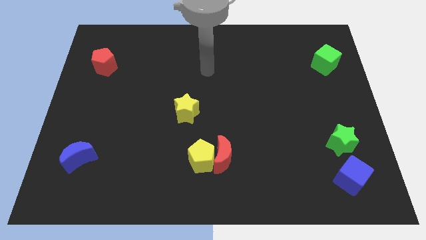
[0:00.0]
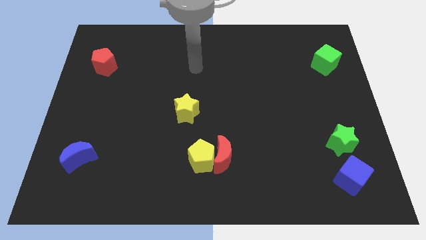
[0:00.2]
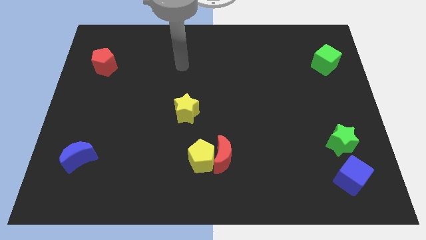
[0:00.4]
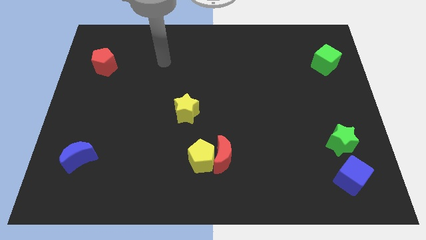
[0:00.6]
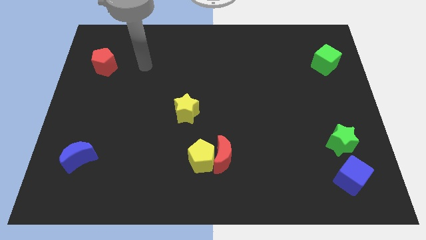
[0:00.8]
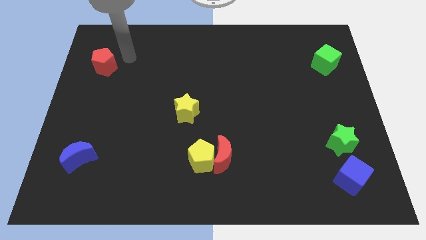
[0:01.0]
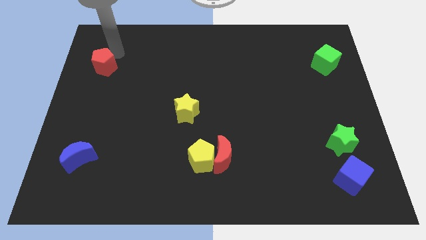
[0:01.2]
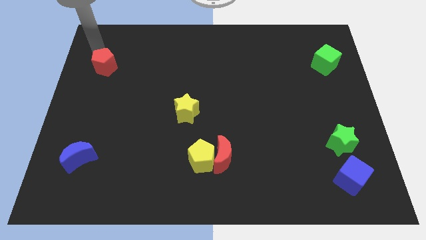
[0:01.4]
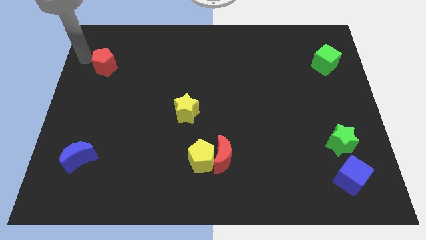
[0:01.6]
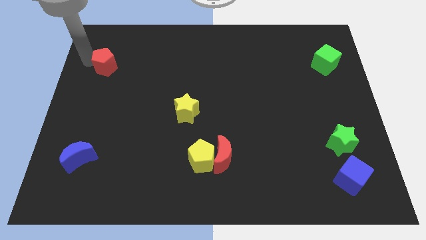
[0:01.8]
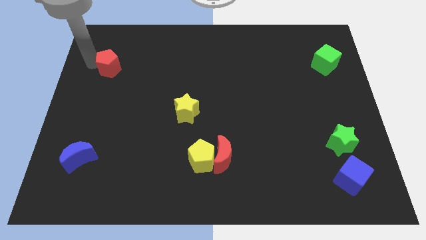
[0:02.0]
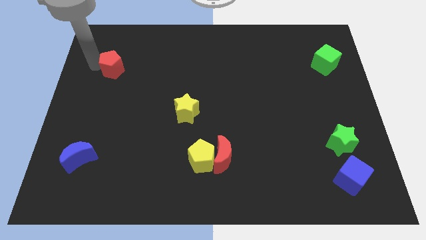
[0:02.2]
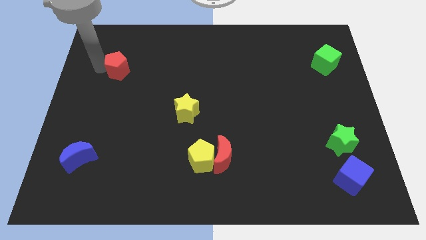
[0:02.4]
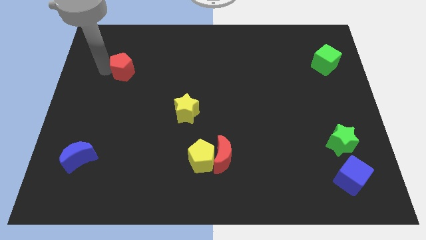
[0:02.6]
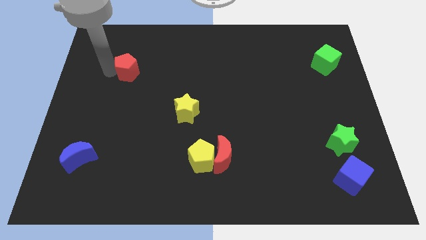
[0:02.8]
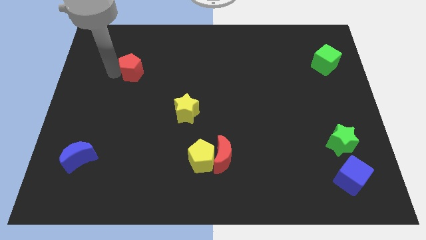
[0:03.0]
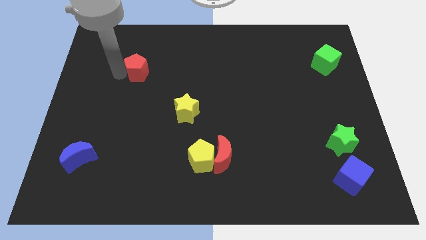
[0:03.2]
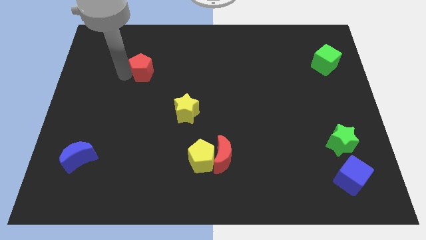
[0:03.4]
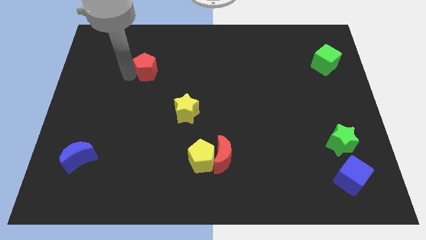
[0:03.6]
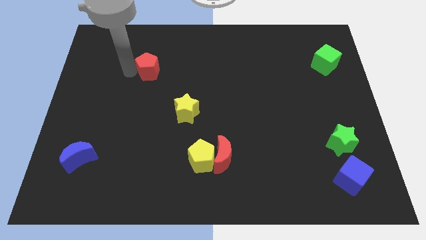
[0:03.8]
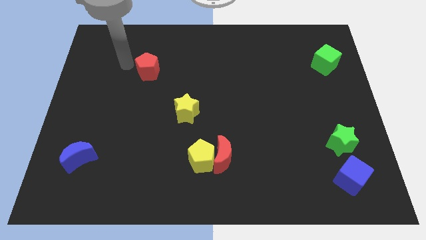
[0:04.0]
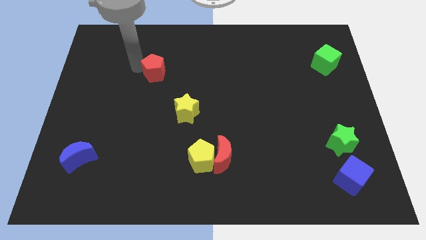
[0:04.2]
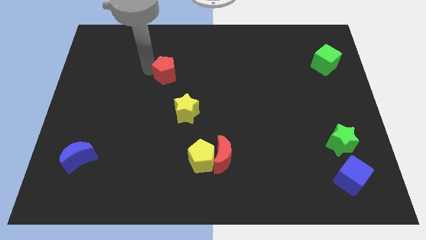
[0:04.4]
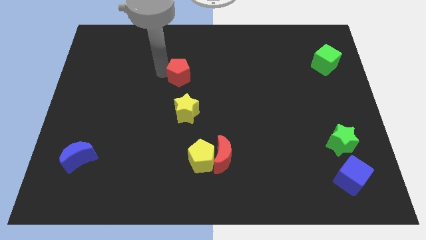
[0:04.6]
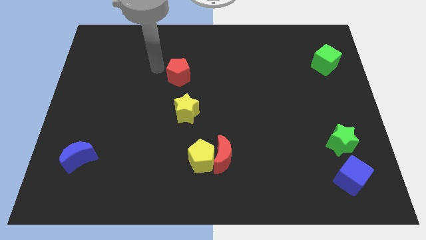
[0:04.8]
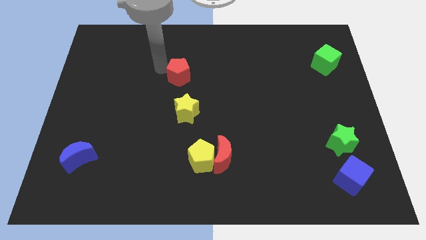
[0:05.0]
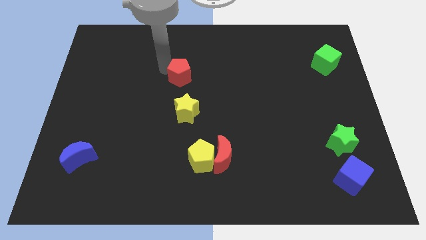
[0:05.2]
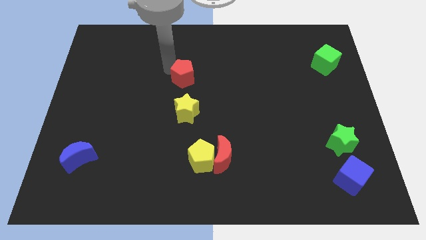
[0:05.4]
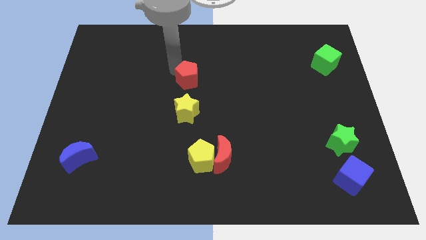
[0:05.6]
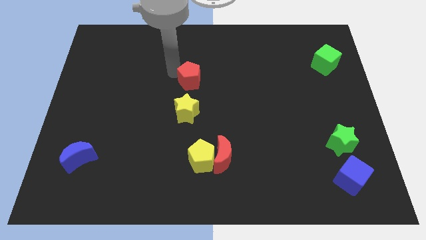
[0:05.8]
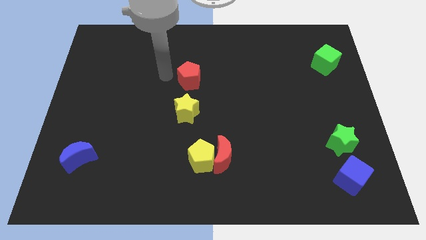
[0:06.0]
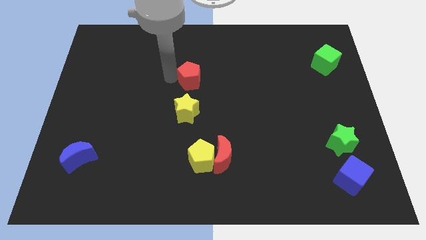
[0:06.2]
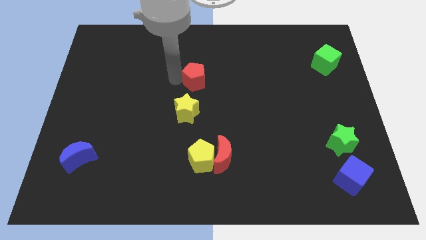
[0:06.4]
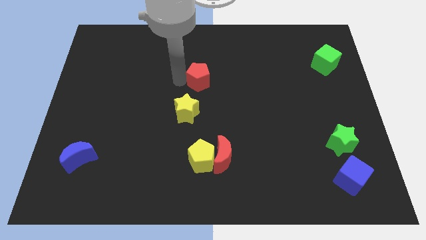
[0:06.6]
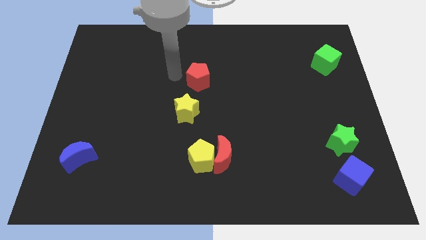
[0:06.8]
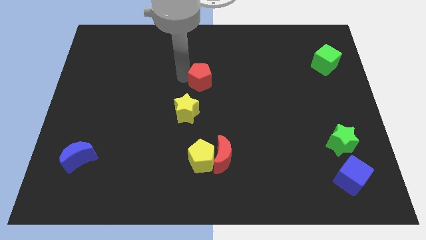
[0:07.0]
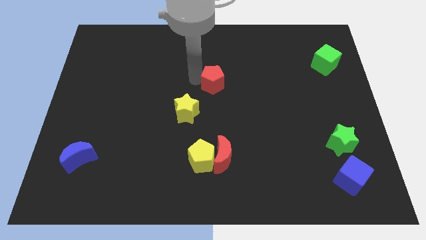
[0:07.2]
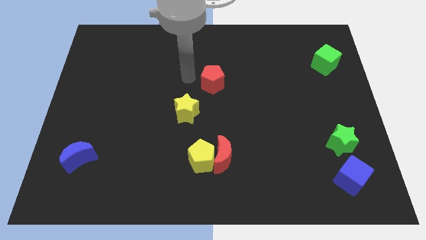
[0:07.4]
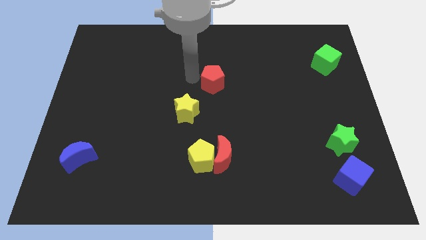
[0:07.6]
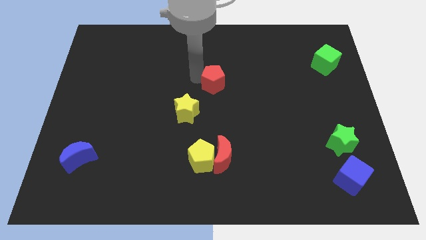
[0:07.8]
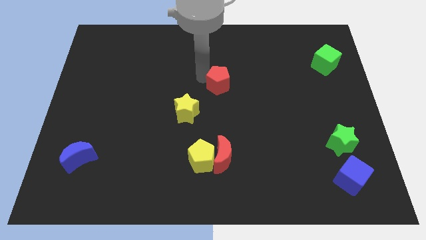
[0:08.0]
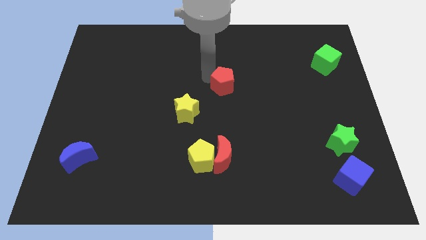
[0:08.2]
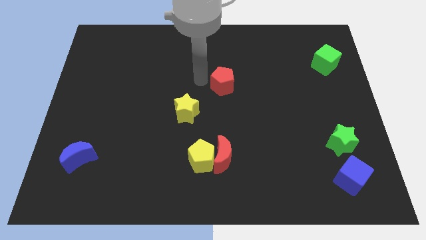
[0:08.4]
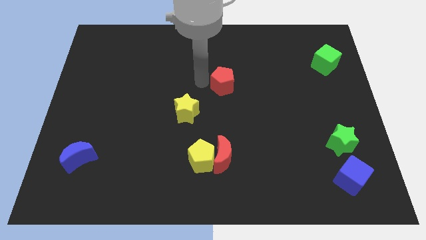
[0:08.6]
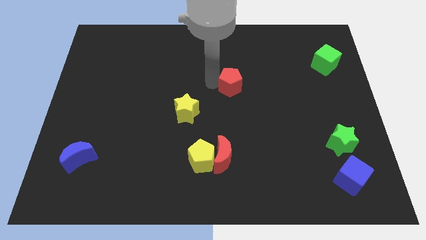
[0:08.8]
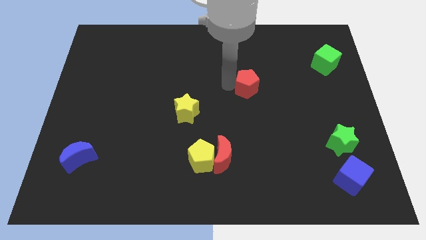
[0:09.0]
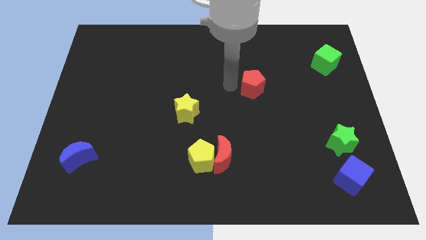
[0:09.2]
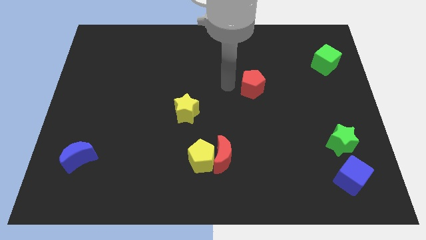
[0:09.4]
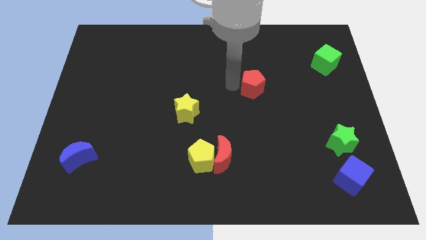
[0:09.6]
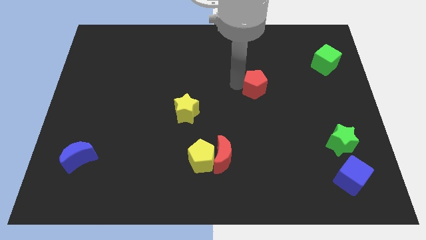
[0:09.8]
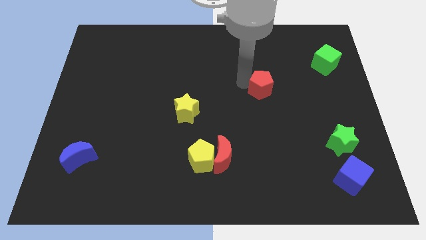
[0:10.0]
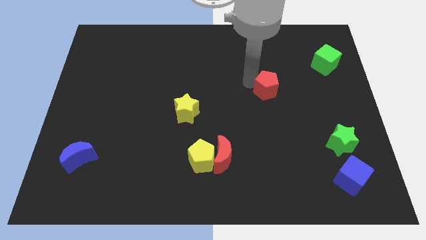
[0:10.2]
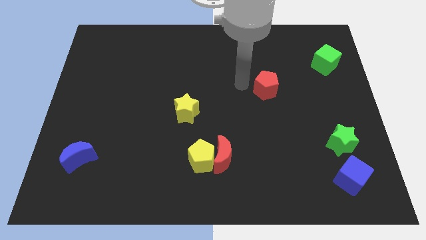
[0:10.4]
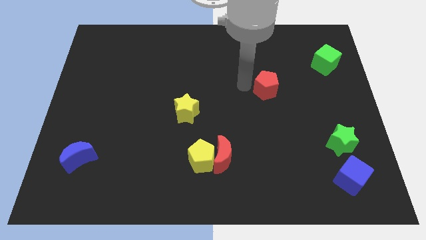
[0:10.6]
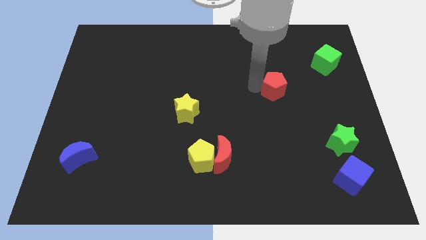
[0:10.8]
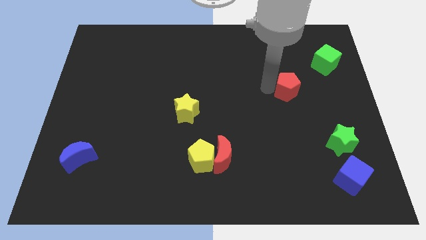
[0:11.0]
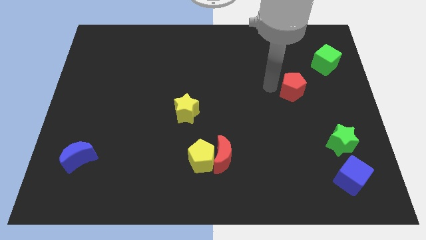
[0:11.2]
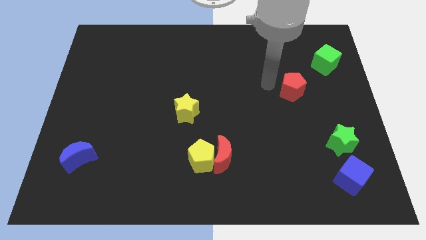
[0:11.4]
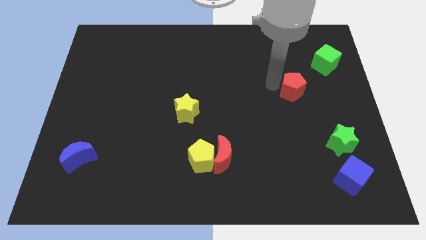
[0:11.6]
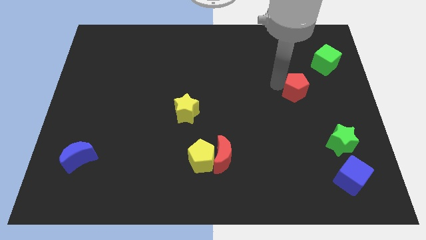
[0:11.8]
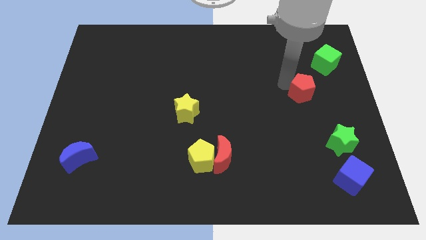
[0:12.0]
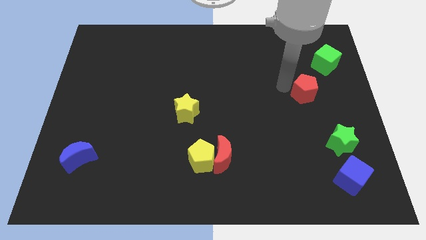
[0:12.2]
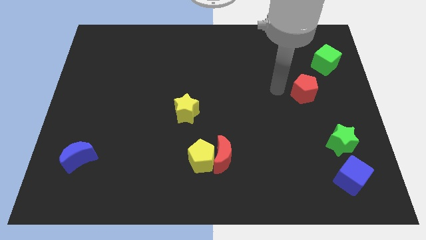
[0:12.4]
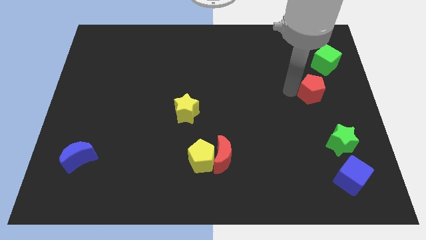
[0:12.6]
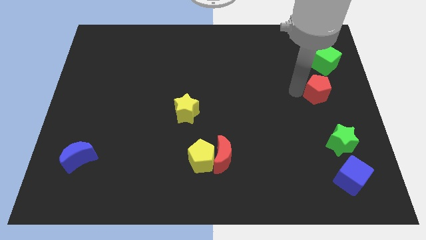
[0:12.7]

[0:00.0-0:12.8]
push the red pentagon to the right side
